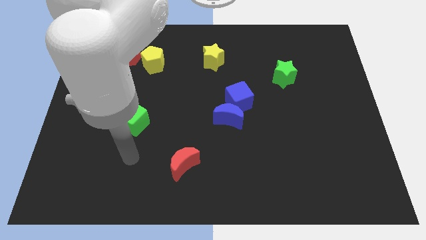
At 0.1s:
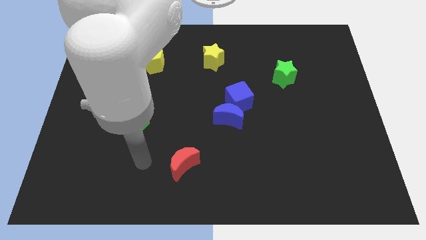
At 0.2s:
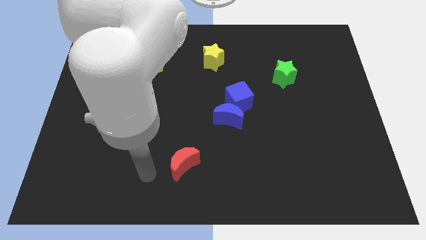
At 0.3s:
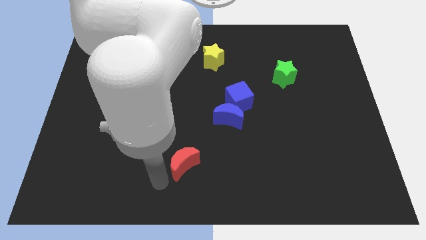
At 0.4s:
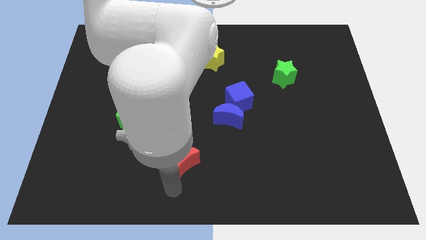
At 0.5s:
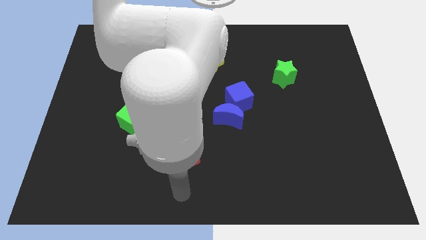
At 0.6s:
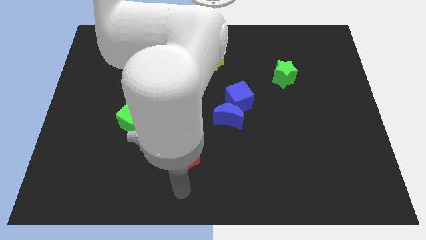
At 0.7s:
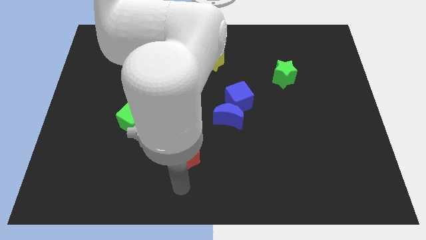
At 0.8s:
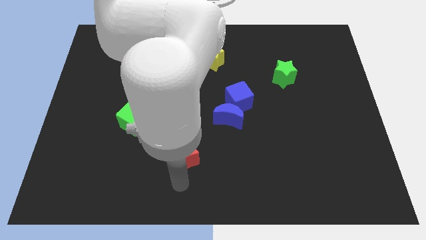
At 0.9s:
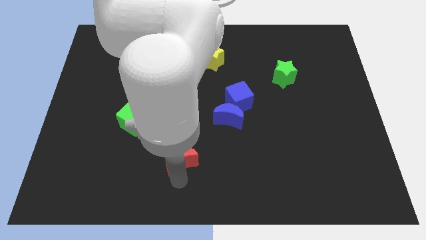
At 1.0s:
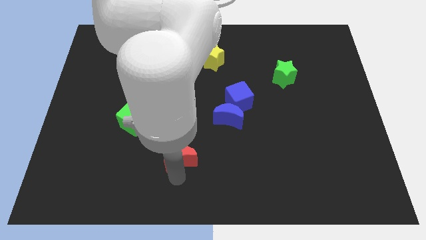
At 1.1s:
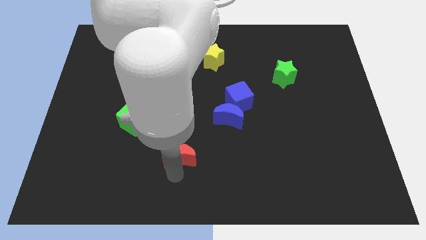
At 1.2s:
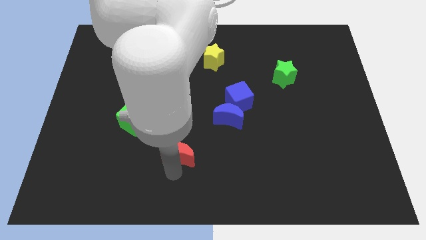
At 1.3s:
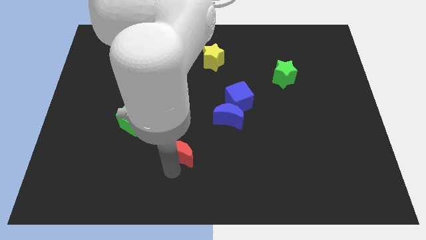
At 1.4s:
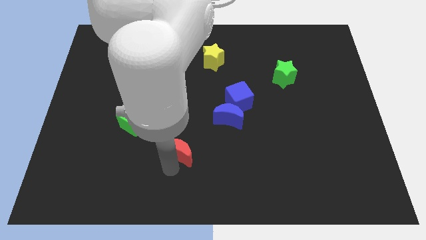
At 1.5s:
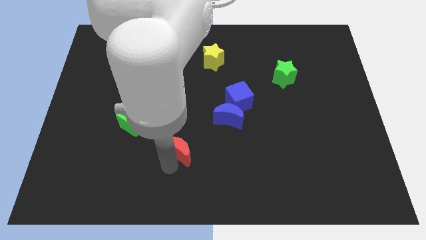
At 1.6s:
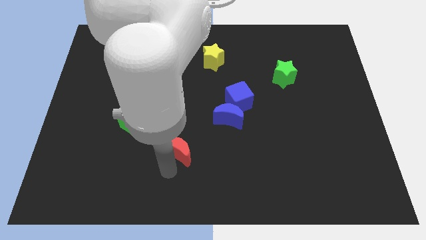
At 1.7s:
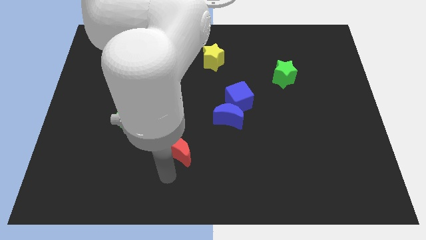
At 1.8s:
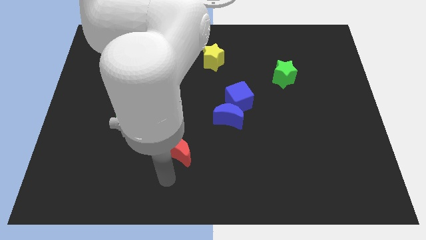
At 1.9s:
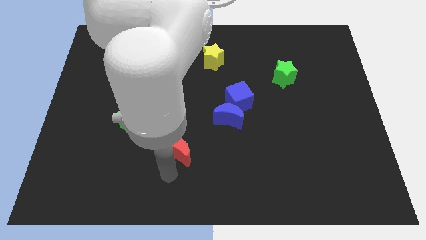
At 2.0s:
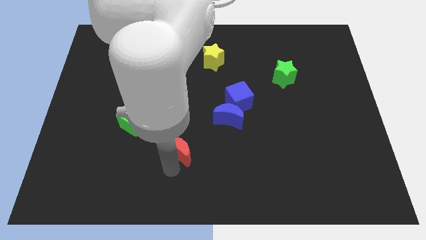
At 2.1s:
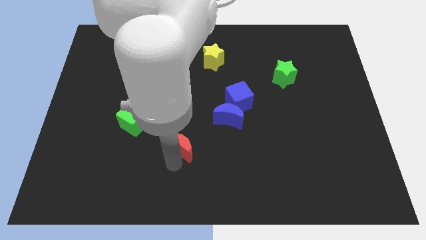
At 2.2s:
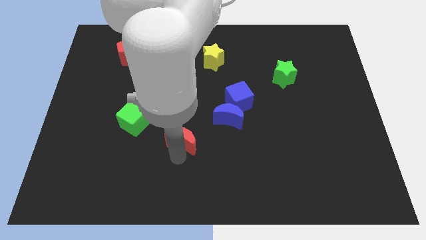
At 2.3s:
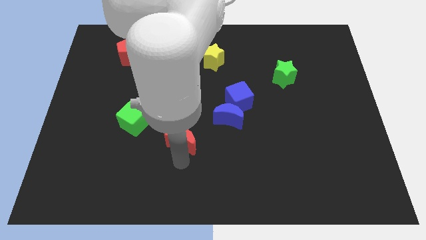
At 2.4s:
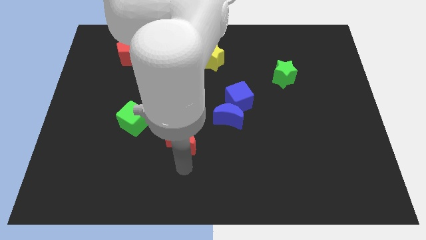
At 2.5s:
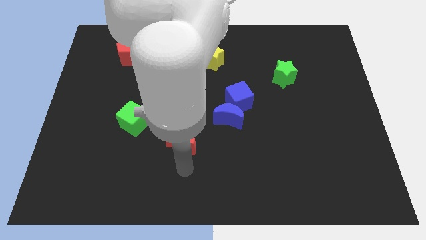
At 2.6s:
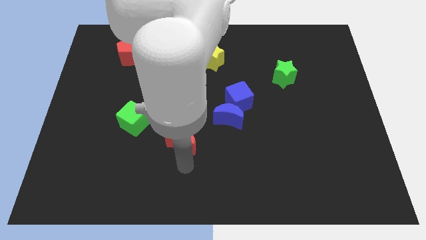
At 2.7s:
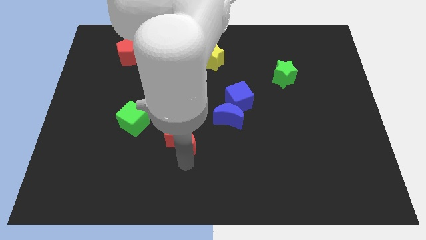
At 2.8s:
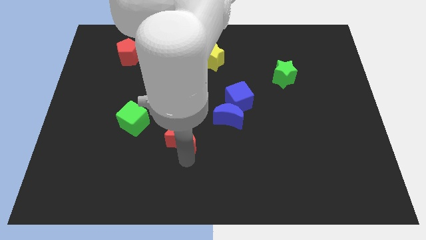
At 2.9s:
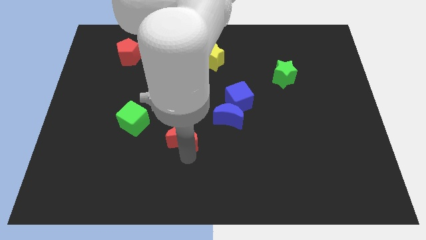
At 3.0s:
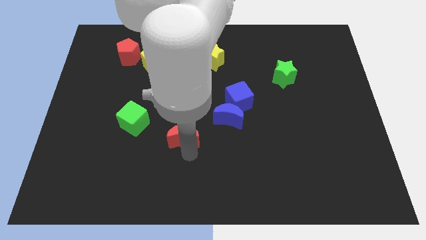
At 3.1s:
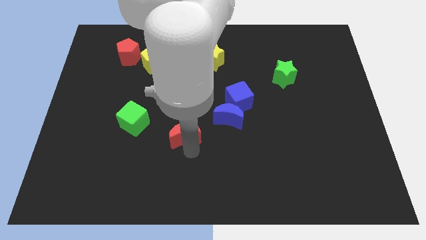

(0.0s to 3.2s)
slide the red moon up slightly

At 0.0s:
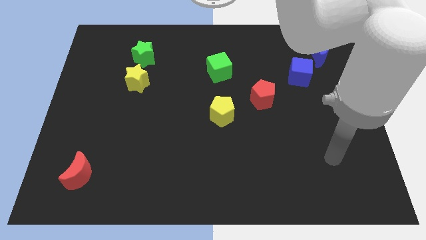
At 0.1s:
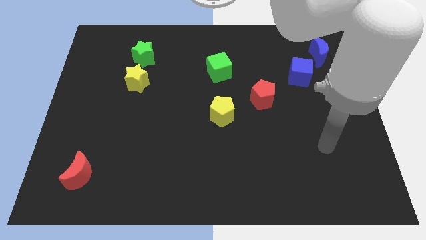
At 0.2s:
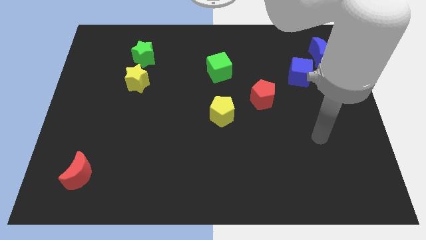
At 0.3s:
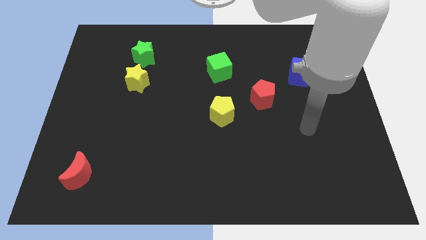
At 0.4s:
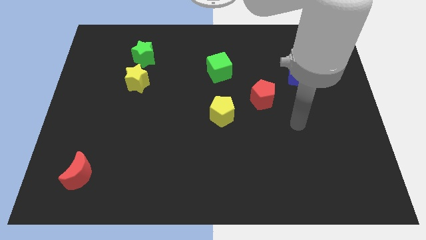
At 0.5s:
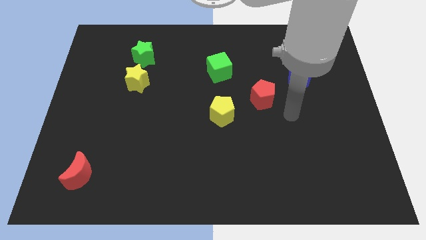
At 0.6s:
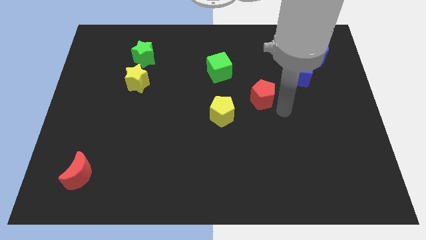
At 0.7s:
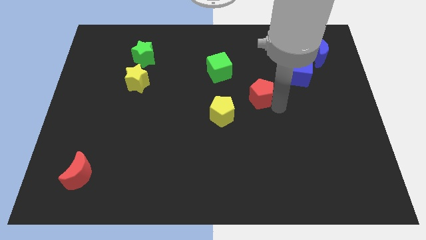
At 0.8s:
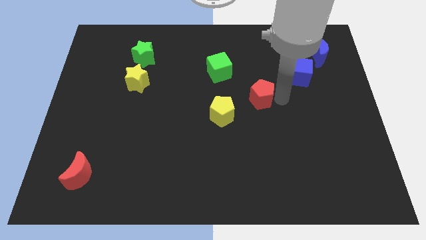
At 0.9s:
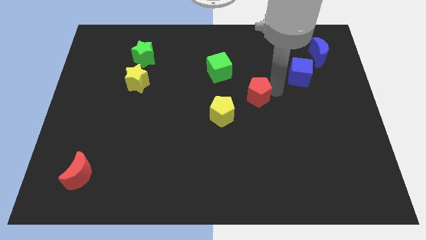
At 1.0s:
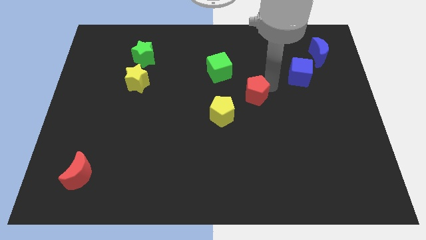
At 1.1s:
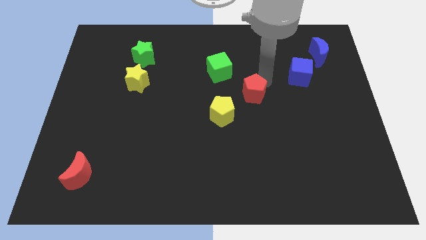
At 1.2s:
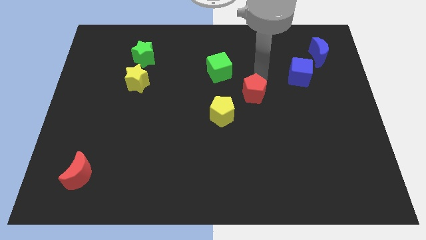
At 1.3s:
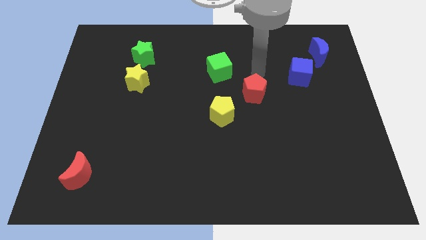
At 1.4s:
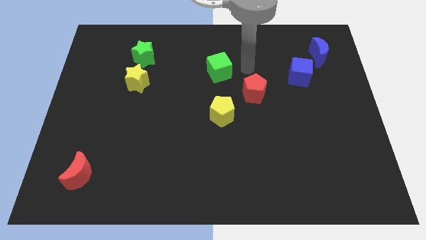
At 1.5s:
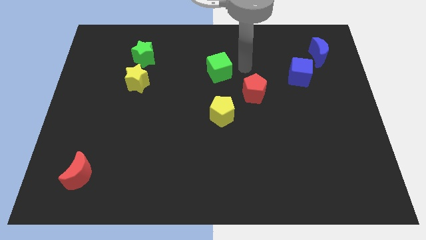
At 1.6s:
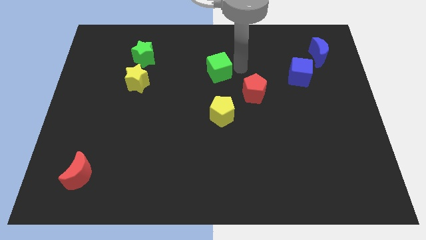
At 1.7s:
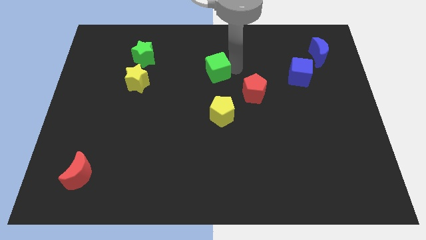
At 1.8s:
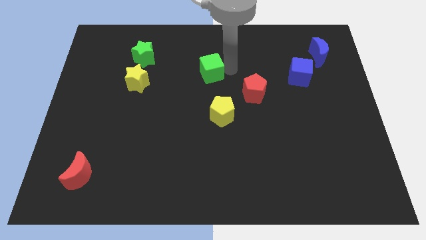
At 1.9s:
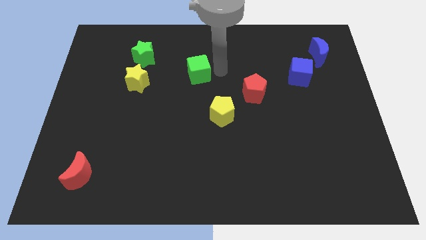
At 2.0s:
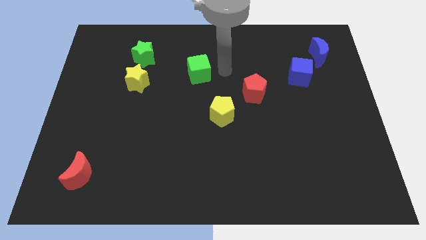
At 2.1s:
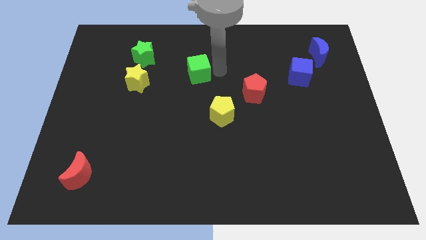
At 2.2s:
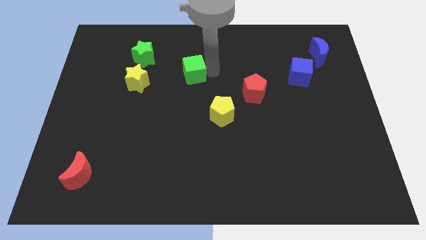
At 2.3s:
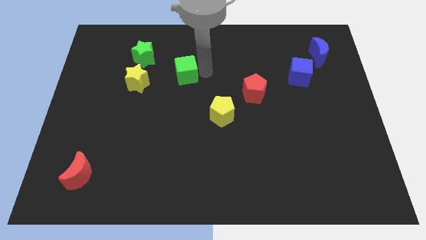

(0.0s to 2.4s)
move the green cube a bit left

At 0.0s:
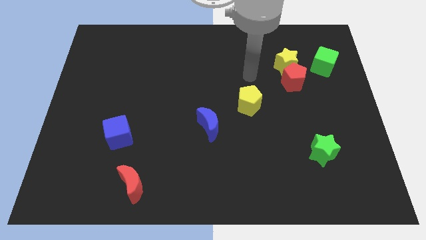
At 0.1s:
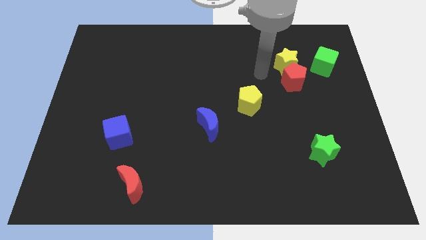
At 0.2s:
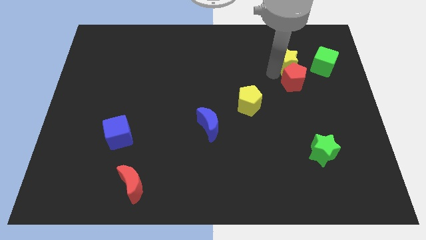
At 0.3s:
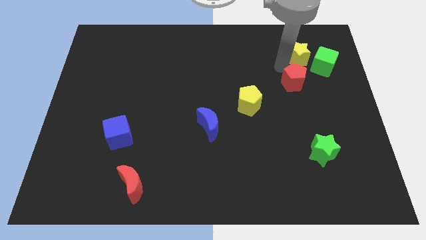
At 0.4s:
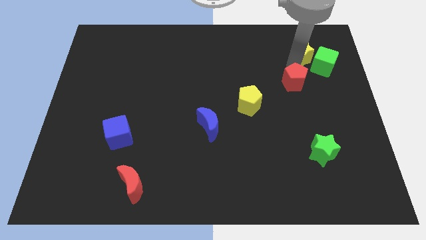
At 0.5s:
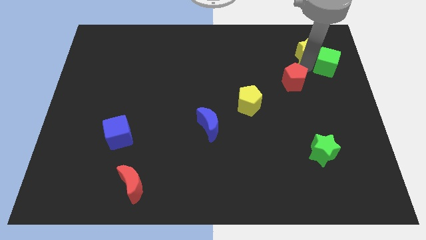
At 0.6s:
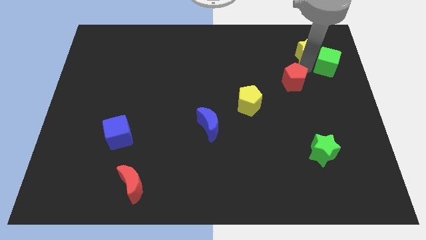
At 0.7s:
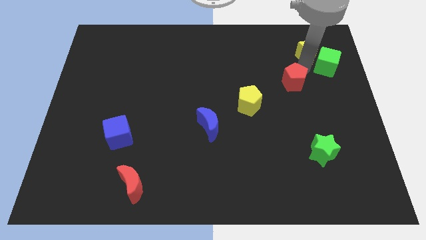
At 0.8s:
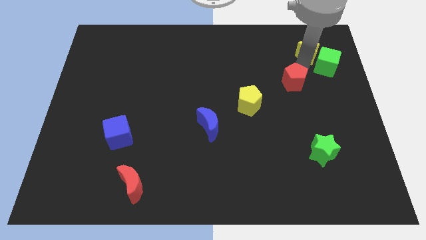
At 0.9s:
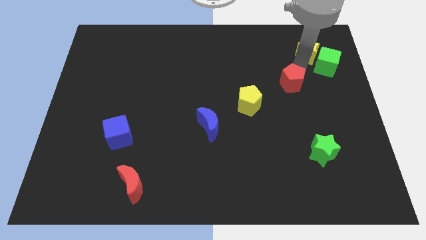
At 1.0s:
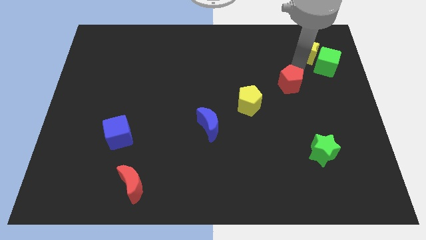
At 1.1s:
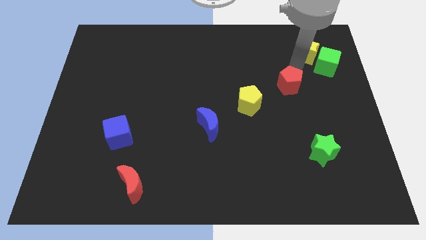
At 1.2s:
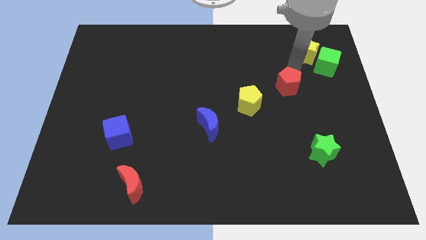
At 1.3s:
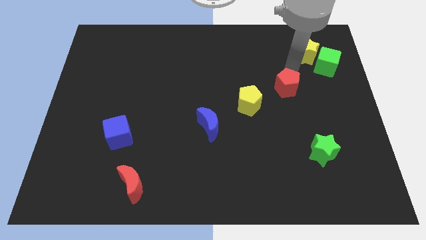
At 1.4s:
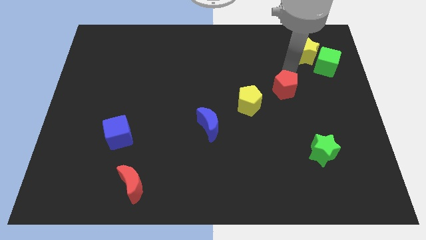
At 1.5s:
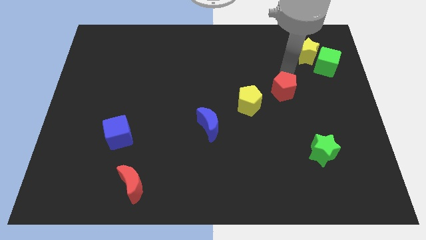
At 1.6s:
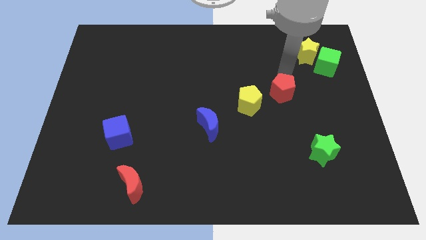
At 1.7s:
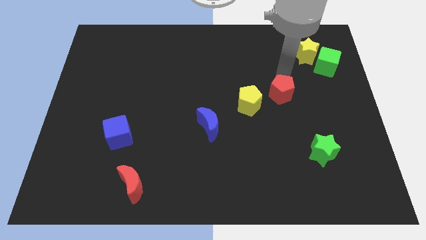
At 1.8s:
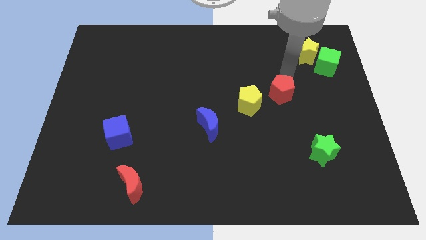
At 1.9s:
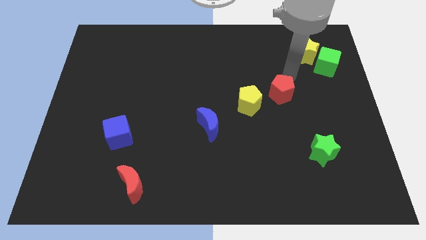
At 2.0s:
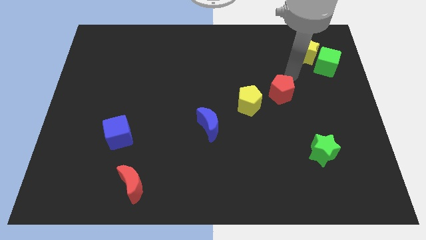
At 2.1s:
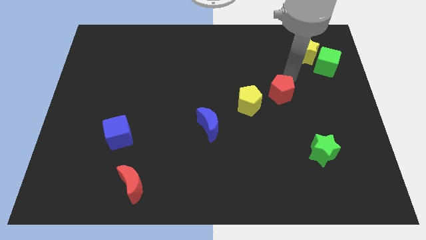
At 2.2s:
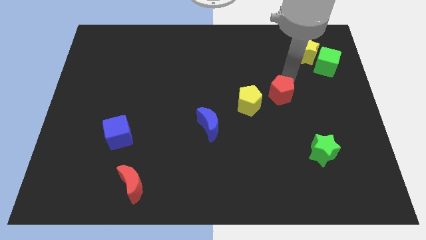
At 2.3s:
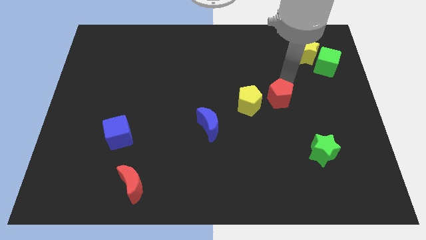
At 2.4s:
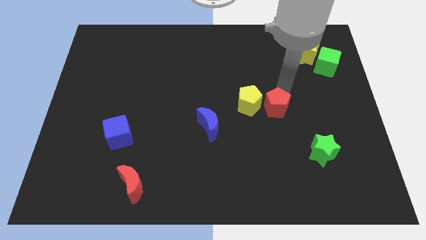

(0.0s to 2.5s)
push the red pentagon down and left diagonally a bit
